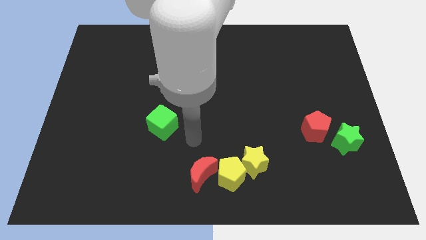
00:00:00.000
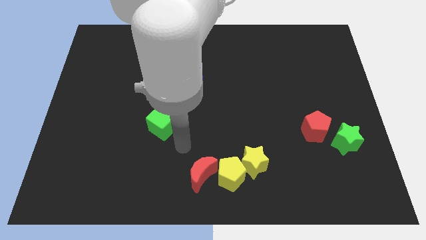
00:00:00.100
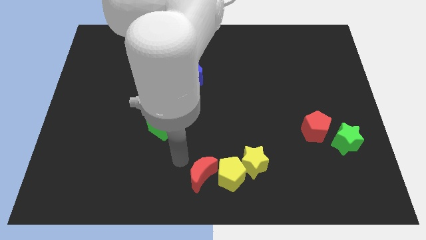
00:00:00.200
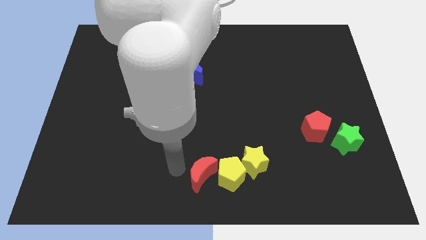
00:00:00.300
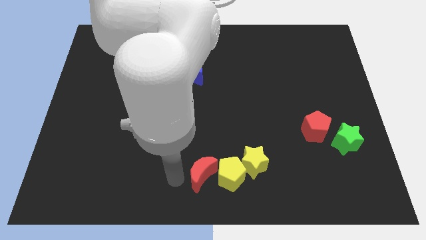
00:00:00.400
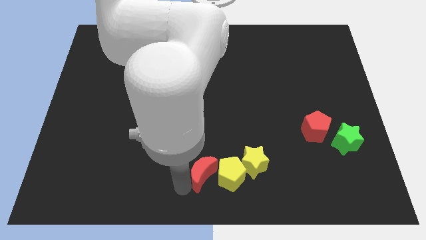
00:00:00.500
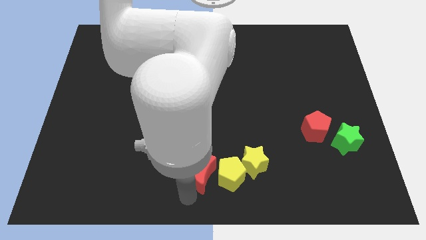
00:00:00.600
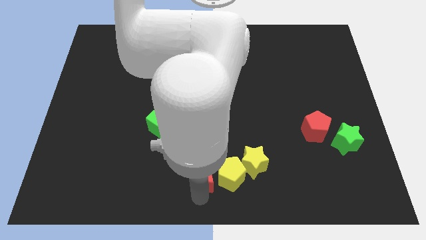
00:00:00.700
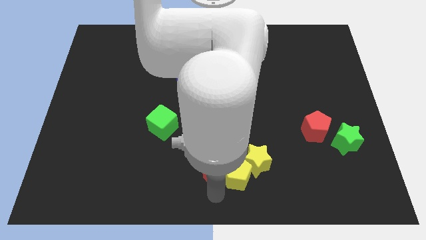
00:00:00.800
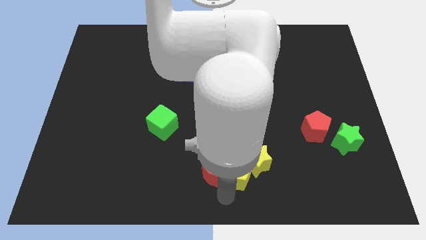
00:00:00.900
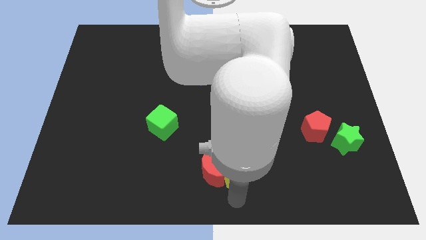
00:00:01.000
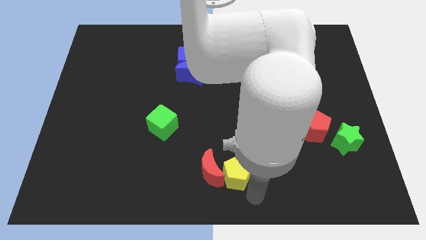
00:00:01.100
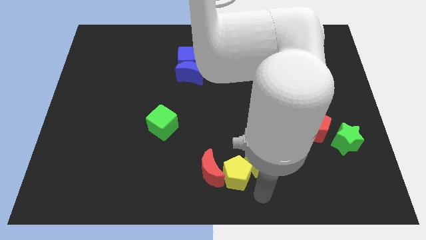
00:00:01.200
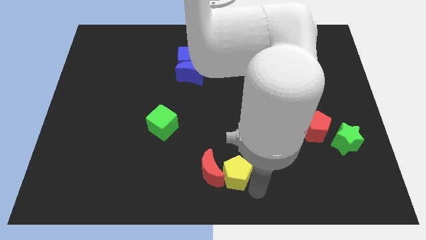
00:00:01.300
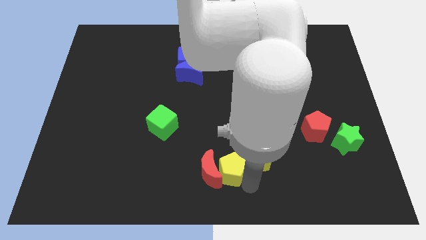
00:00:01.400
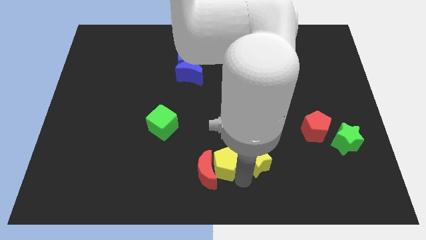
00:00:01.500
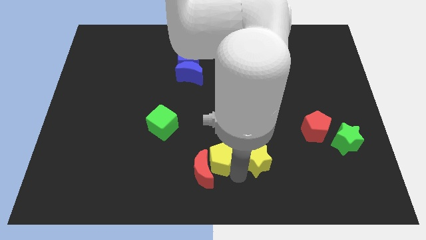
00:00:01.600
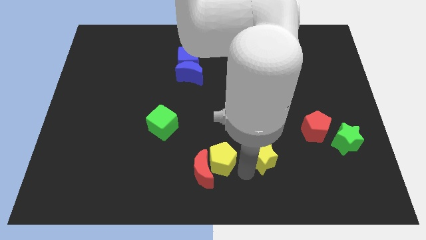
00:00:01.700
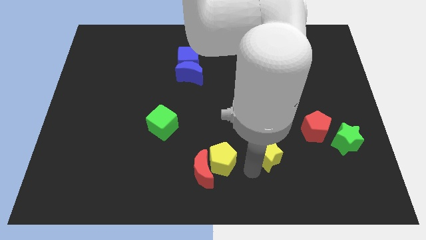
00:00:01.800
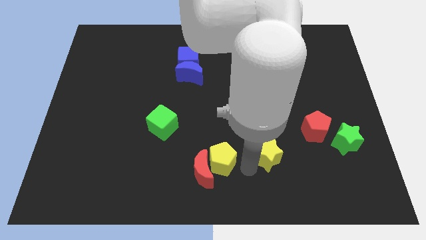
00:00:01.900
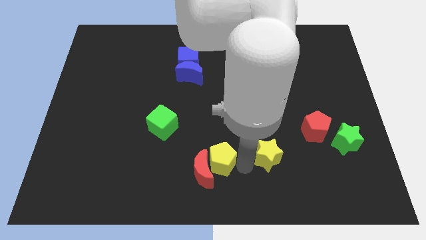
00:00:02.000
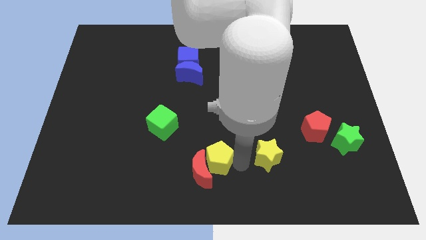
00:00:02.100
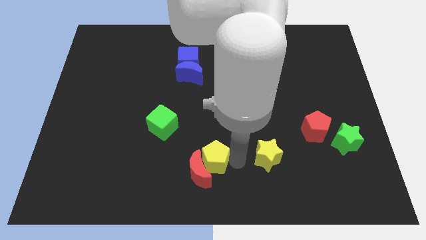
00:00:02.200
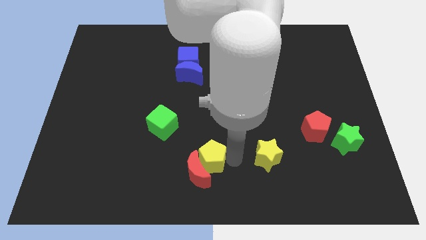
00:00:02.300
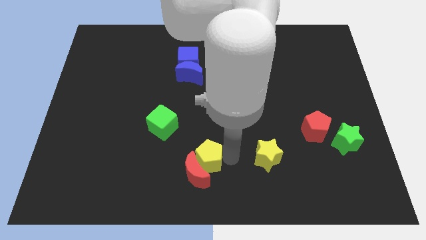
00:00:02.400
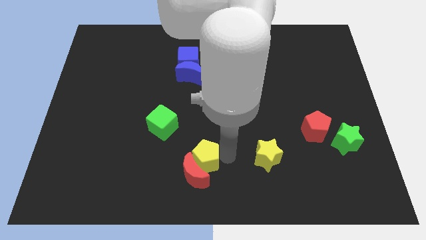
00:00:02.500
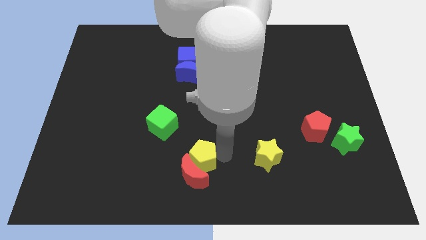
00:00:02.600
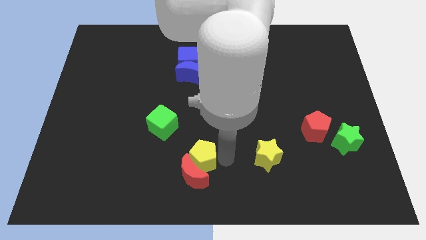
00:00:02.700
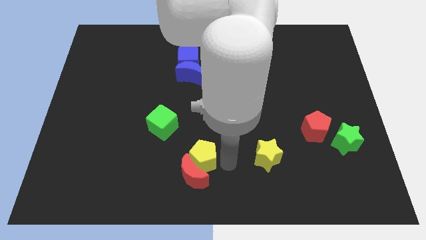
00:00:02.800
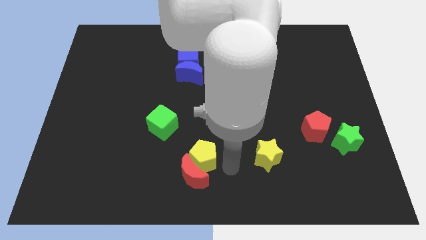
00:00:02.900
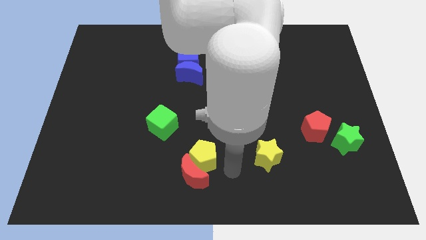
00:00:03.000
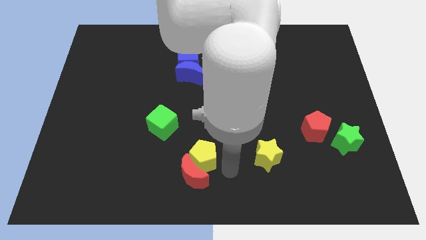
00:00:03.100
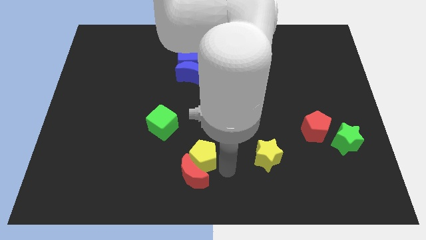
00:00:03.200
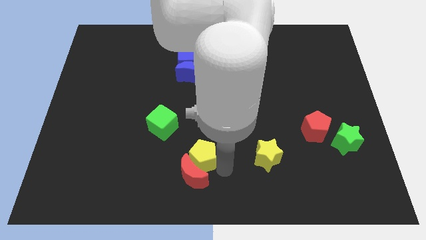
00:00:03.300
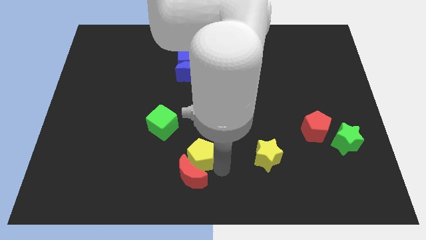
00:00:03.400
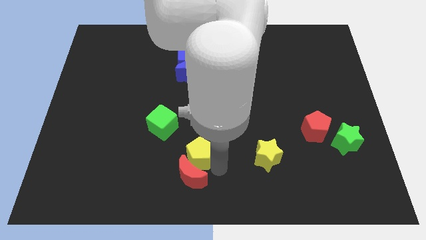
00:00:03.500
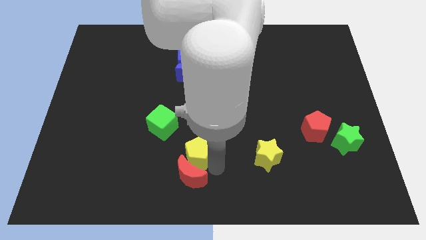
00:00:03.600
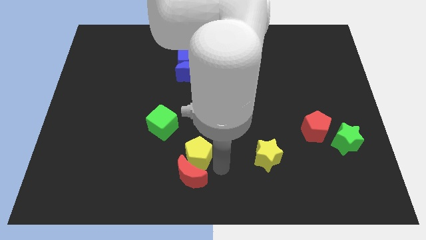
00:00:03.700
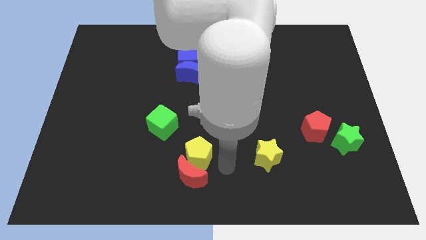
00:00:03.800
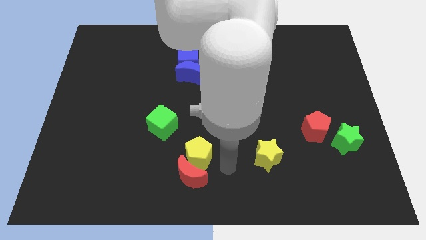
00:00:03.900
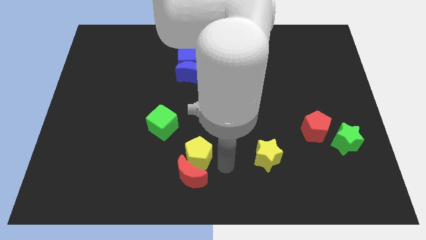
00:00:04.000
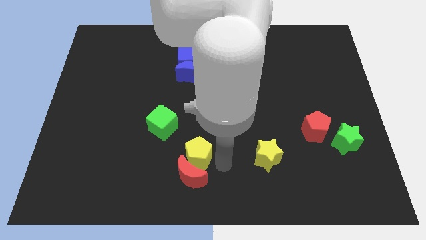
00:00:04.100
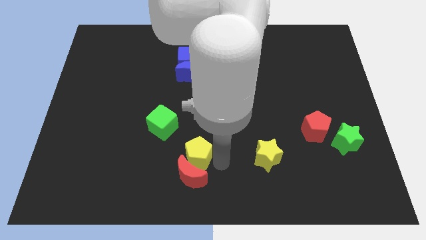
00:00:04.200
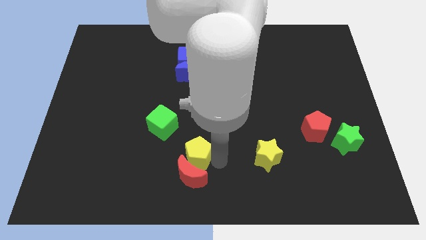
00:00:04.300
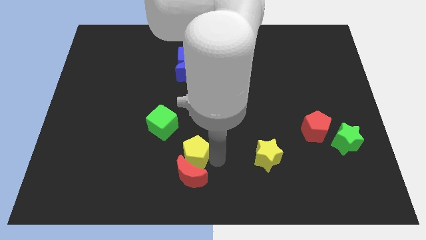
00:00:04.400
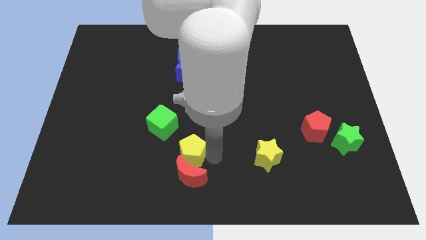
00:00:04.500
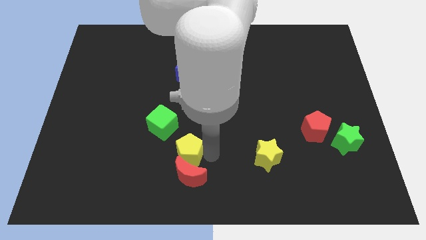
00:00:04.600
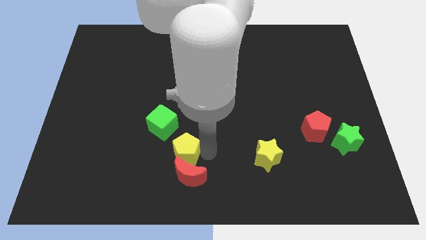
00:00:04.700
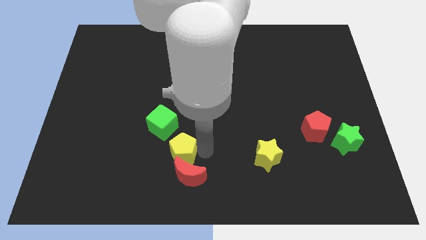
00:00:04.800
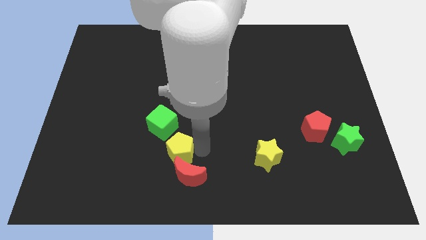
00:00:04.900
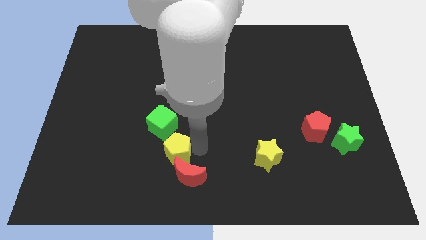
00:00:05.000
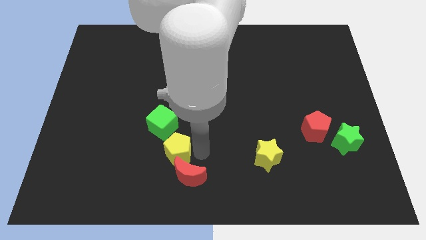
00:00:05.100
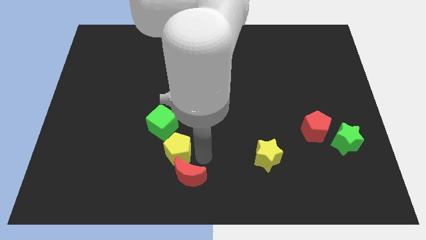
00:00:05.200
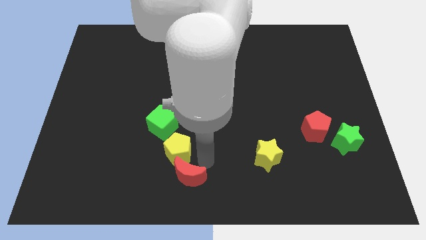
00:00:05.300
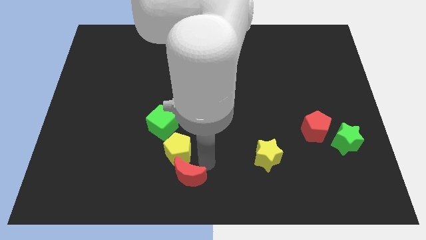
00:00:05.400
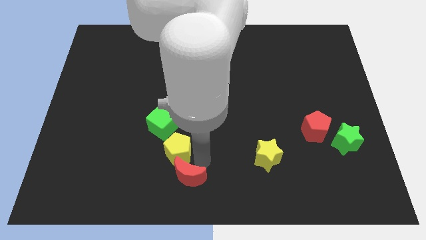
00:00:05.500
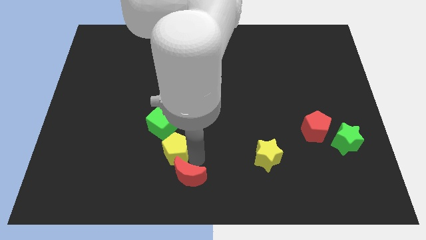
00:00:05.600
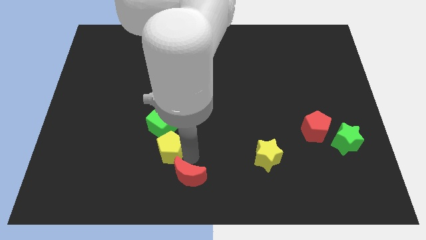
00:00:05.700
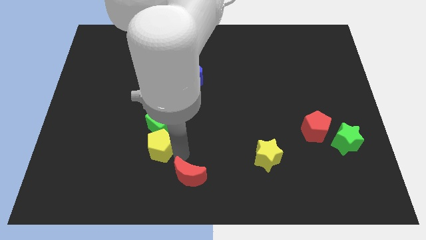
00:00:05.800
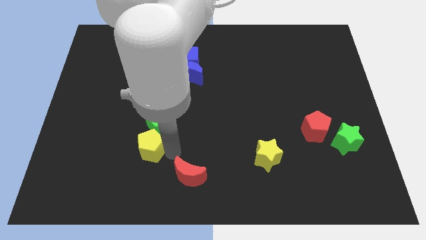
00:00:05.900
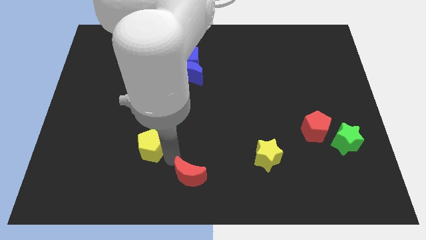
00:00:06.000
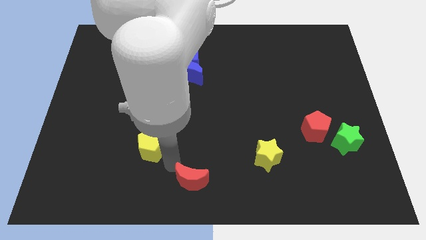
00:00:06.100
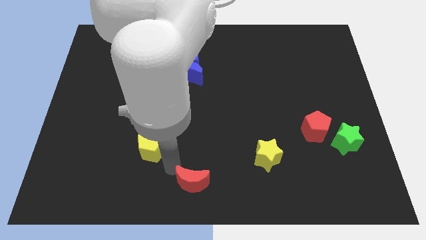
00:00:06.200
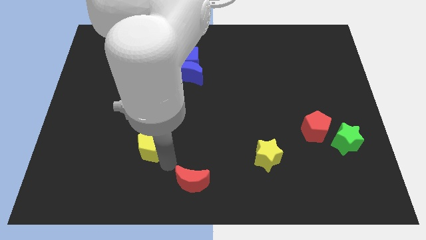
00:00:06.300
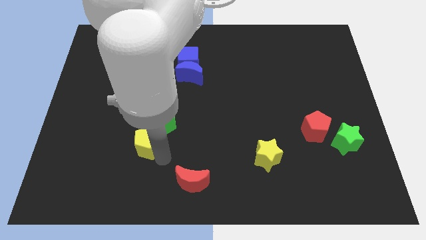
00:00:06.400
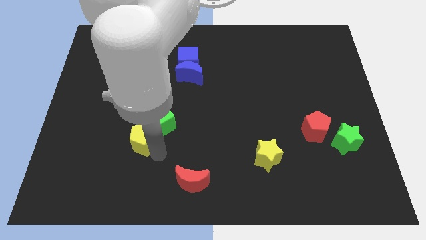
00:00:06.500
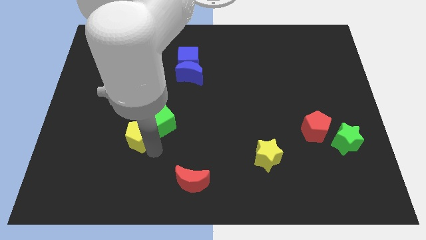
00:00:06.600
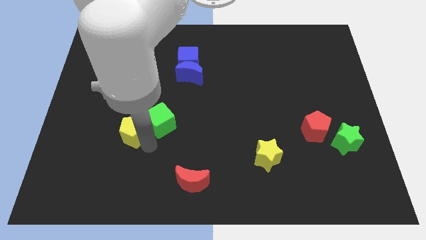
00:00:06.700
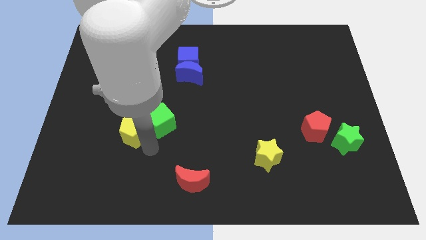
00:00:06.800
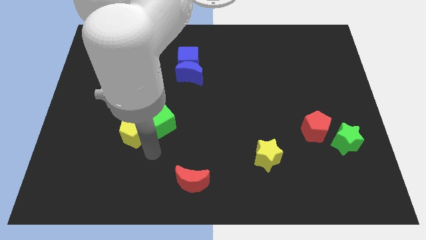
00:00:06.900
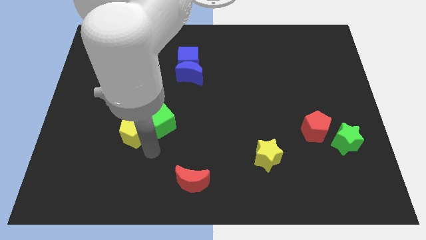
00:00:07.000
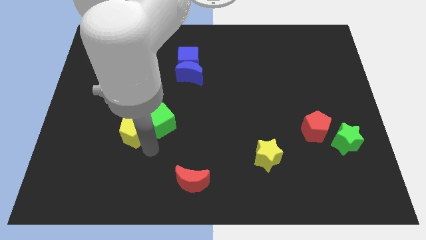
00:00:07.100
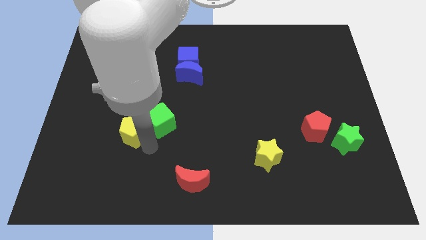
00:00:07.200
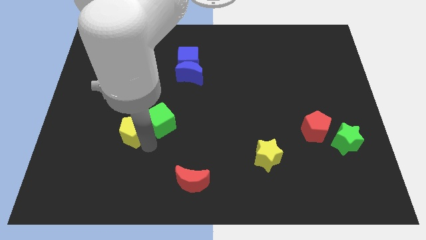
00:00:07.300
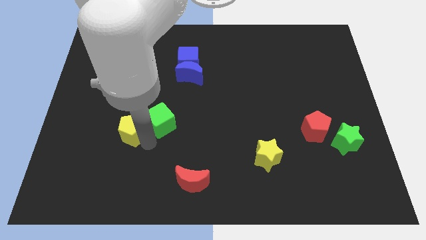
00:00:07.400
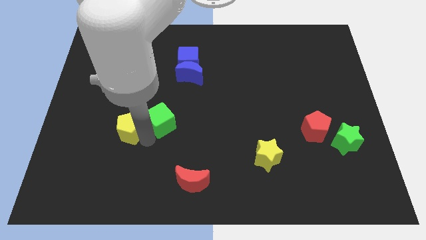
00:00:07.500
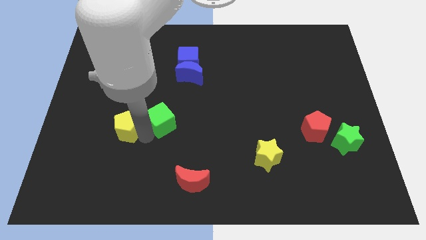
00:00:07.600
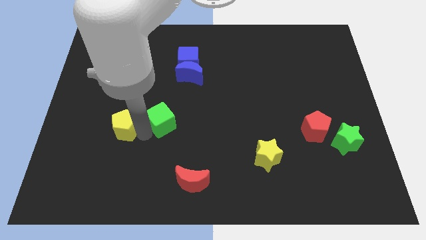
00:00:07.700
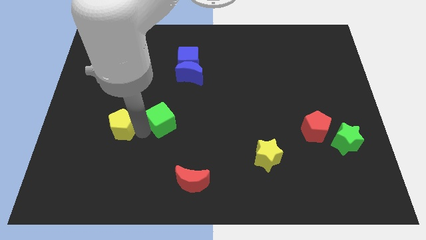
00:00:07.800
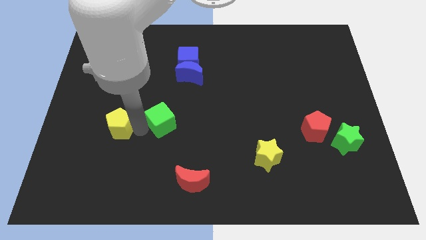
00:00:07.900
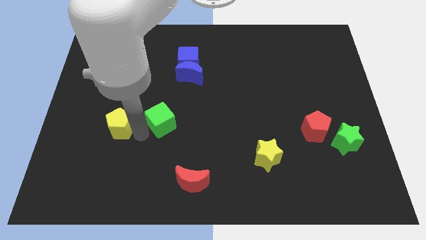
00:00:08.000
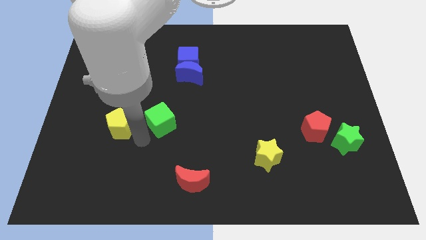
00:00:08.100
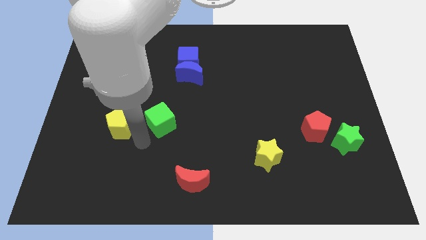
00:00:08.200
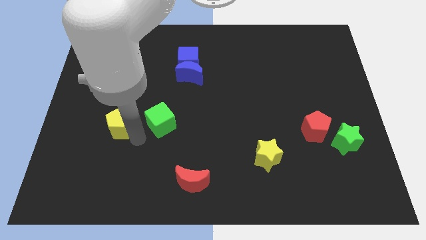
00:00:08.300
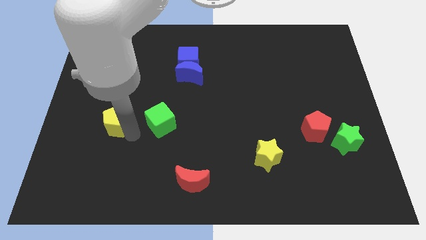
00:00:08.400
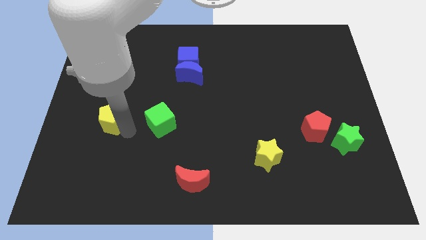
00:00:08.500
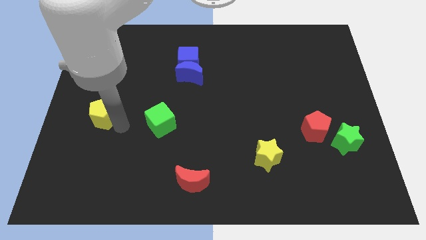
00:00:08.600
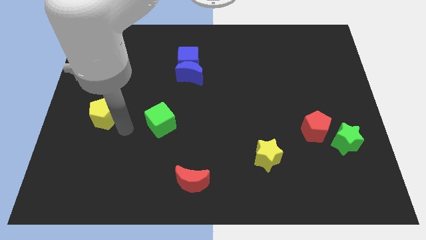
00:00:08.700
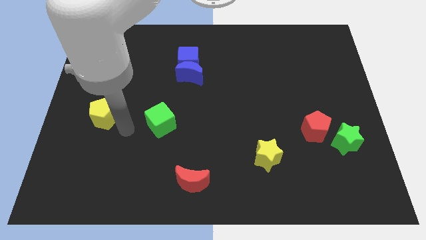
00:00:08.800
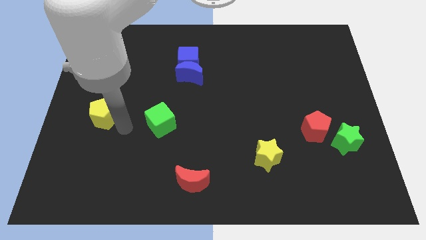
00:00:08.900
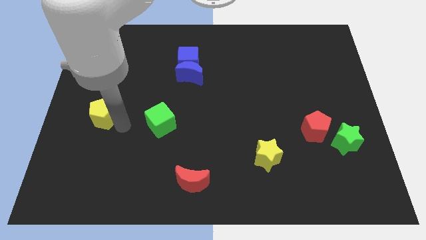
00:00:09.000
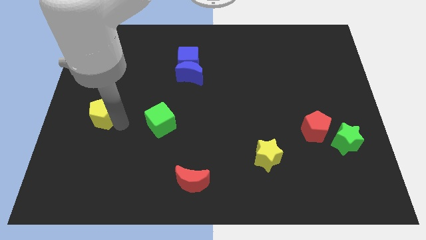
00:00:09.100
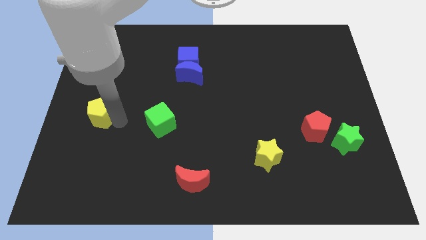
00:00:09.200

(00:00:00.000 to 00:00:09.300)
slide the yellow pentagon to the center left
